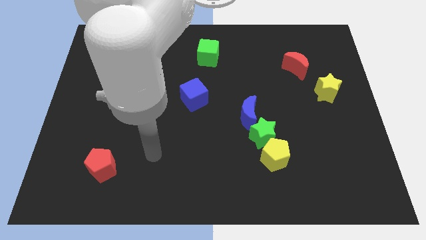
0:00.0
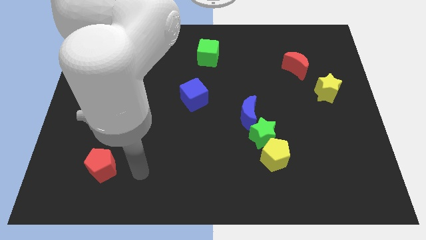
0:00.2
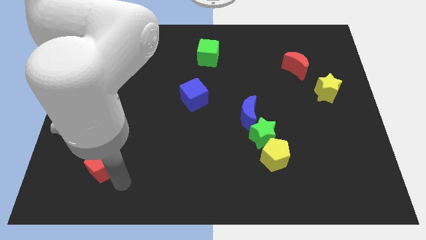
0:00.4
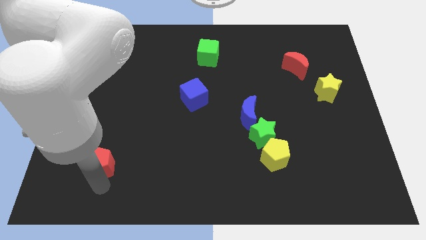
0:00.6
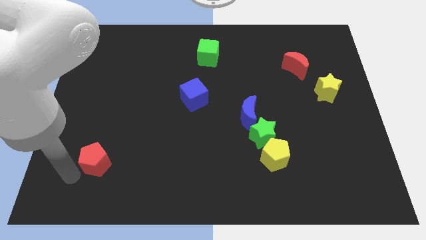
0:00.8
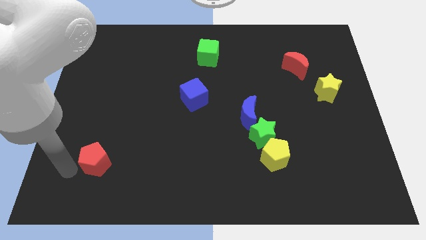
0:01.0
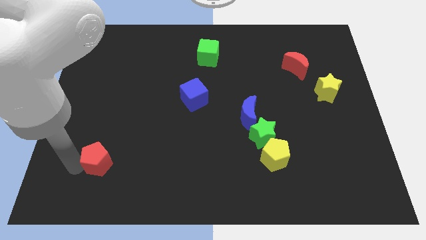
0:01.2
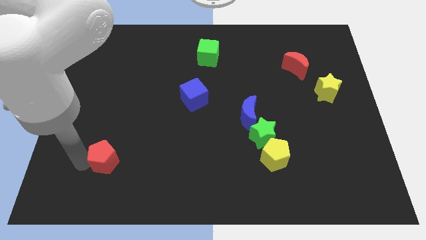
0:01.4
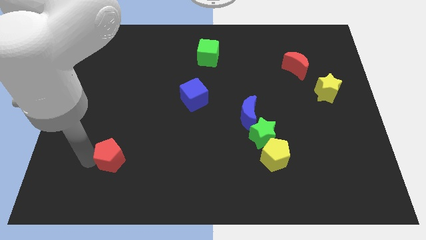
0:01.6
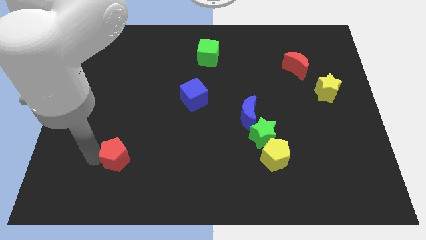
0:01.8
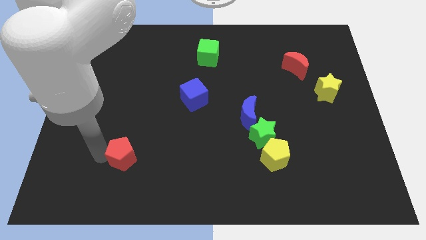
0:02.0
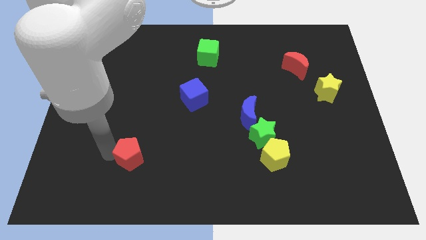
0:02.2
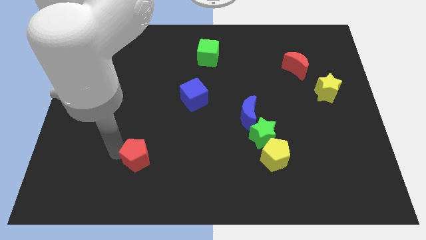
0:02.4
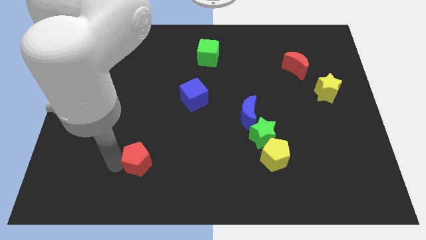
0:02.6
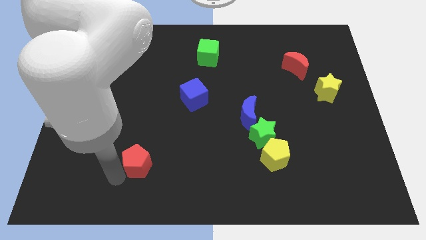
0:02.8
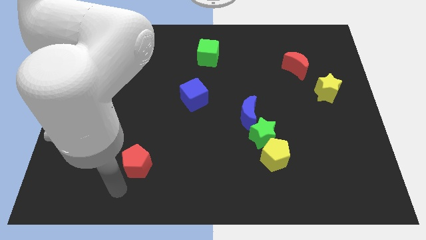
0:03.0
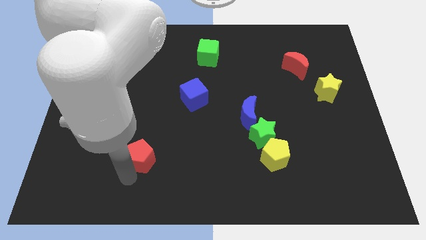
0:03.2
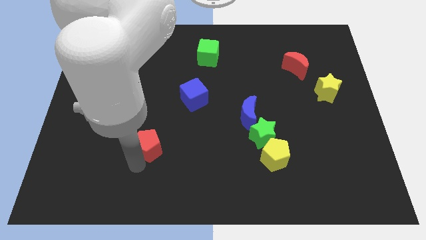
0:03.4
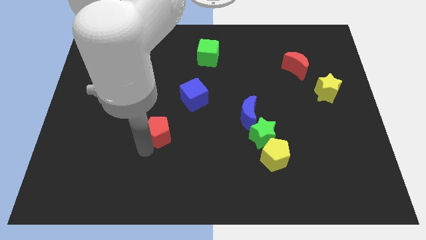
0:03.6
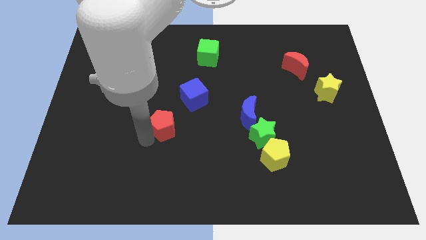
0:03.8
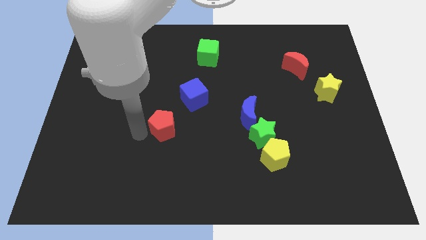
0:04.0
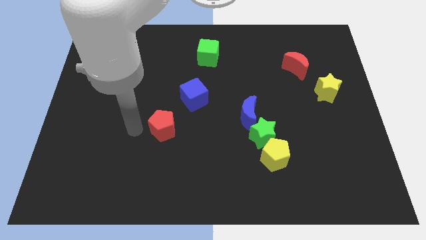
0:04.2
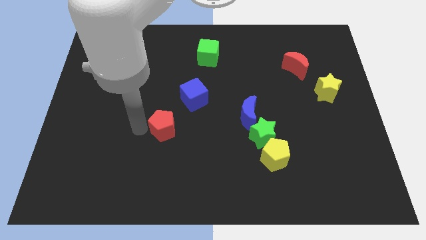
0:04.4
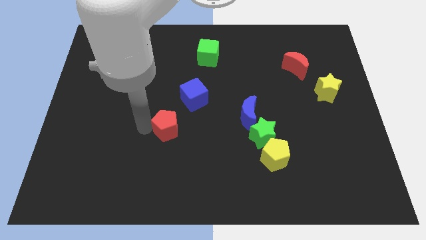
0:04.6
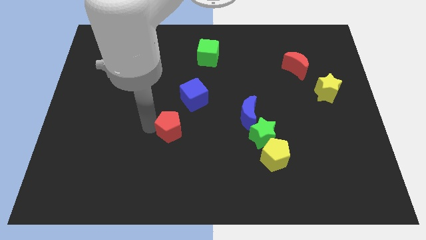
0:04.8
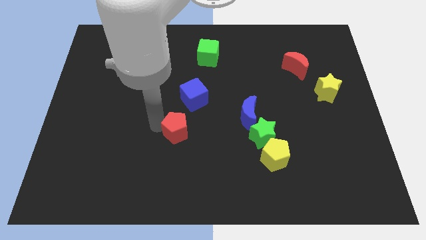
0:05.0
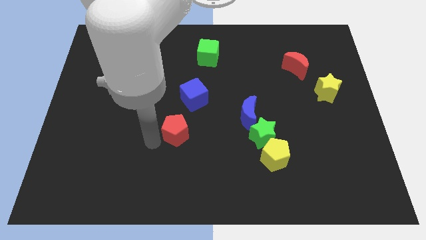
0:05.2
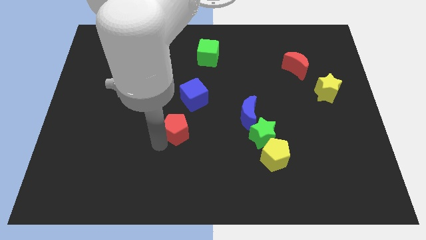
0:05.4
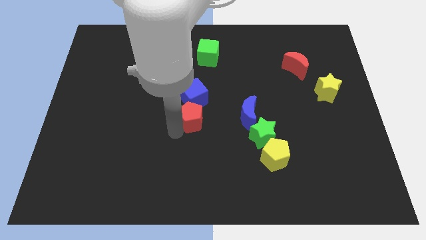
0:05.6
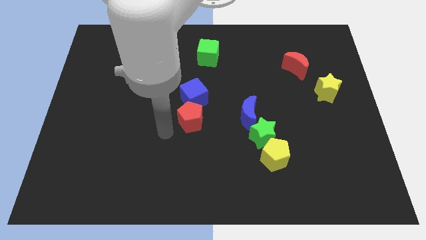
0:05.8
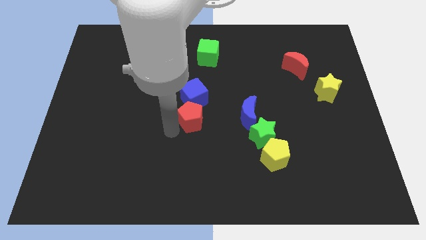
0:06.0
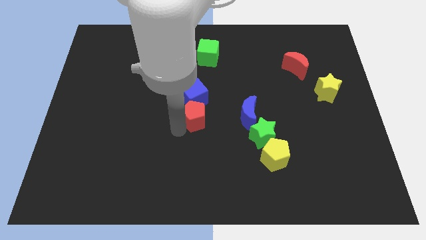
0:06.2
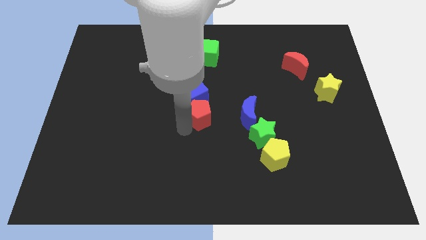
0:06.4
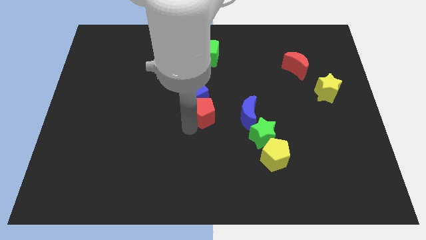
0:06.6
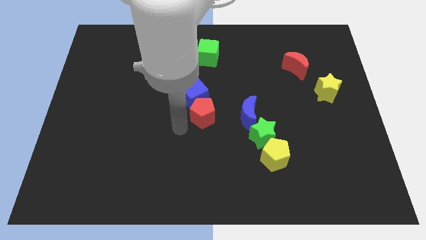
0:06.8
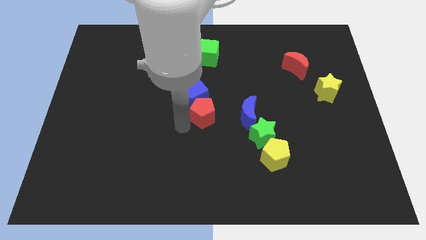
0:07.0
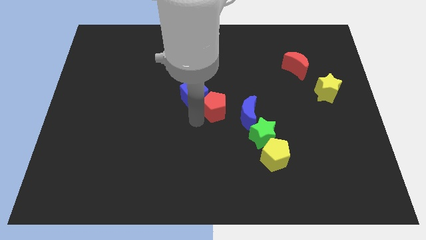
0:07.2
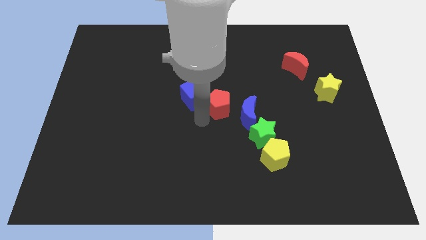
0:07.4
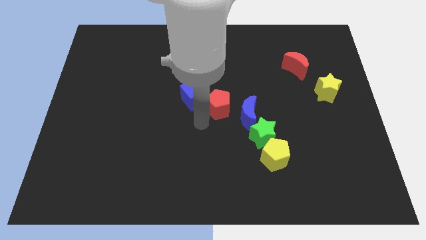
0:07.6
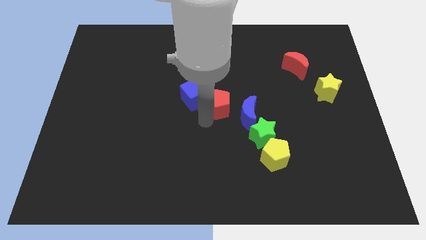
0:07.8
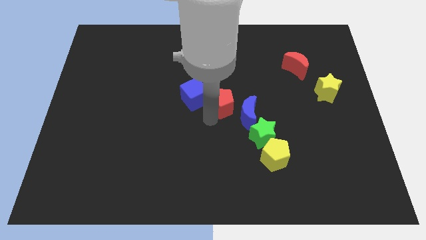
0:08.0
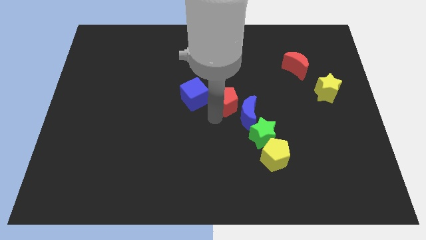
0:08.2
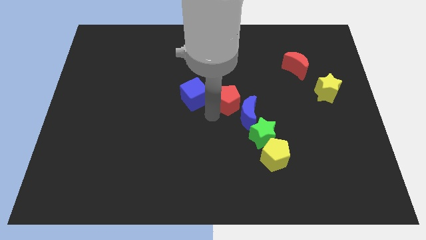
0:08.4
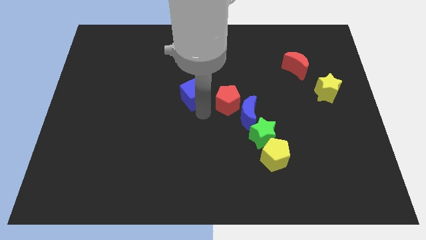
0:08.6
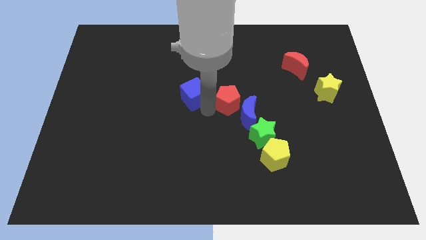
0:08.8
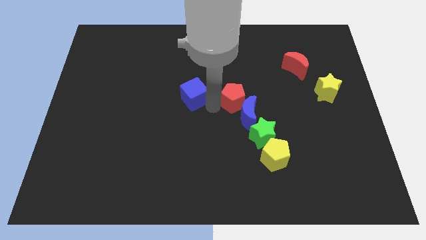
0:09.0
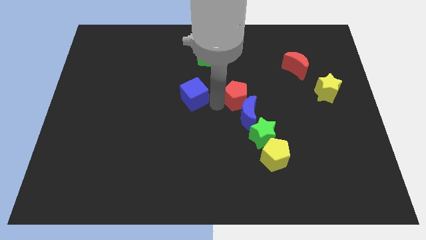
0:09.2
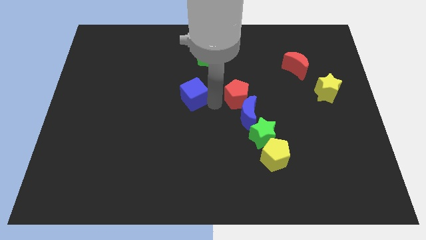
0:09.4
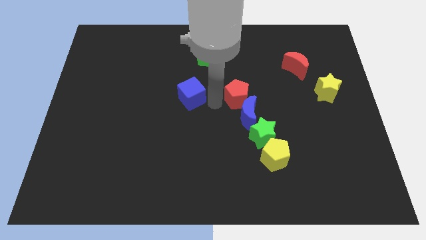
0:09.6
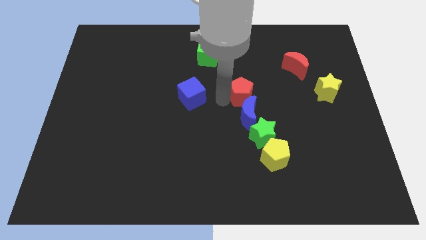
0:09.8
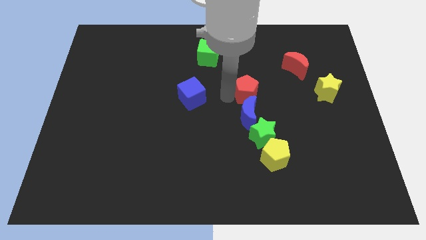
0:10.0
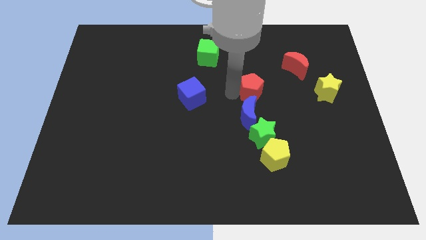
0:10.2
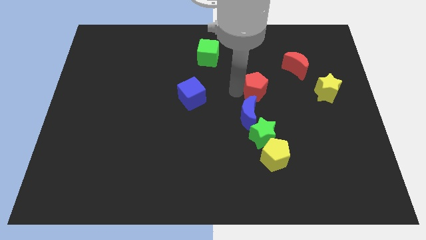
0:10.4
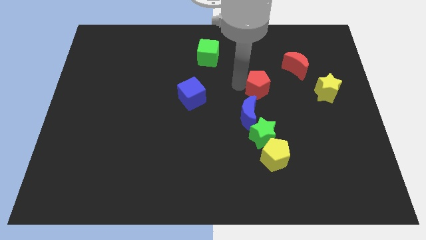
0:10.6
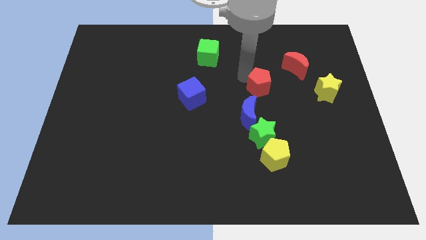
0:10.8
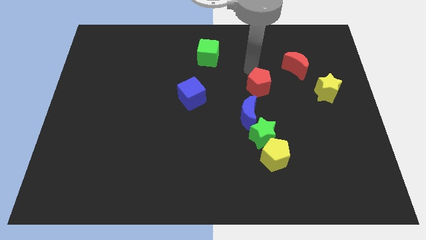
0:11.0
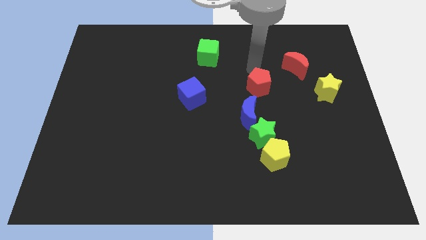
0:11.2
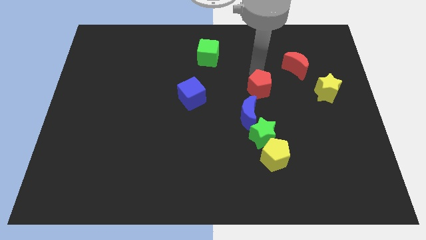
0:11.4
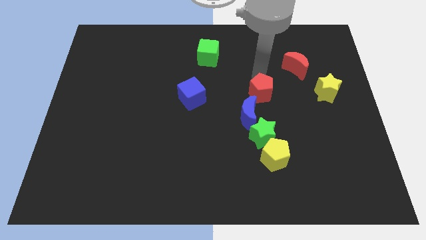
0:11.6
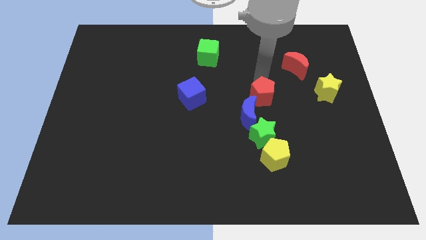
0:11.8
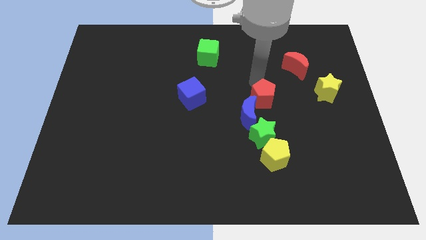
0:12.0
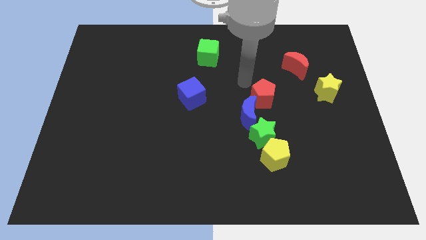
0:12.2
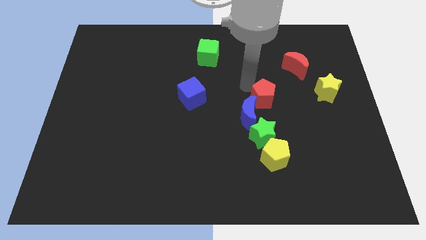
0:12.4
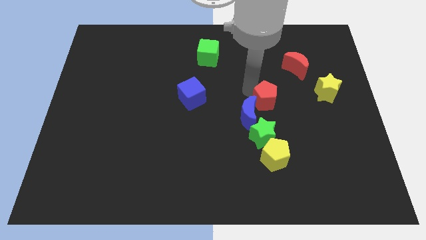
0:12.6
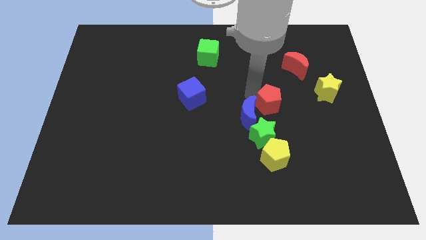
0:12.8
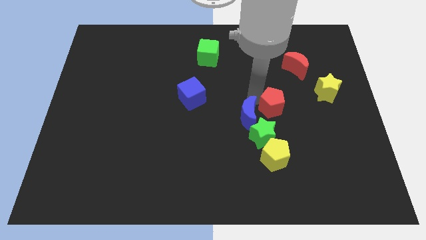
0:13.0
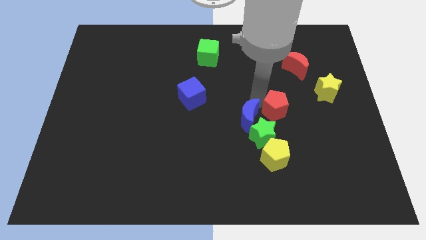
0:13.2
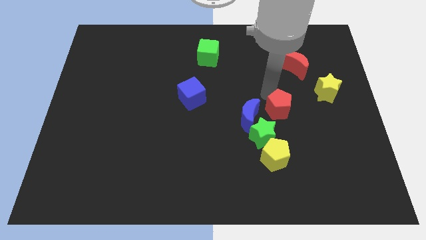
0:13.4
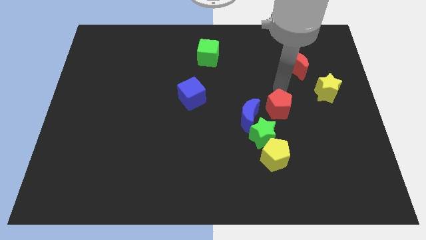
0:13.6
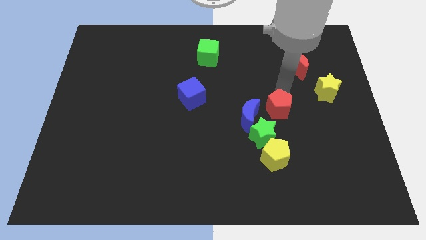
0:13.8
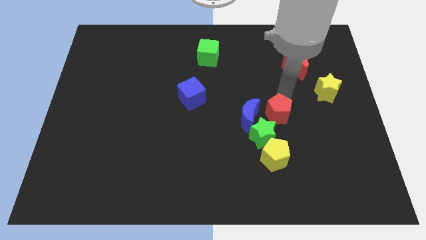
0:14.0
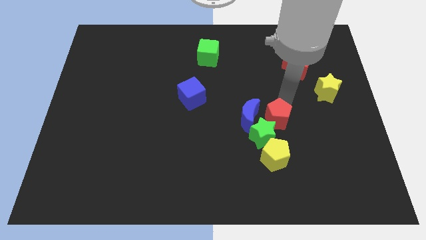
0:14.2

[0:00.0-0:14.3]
put the red pentagon diagonally down and to the right of the blue moon
